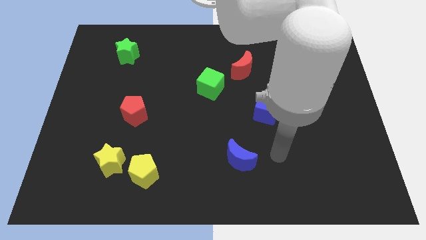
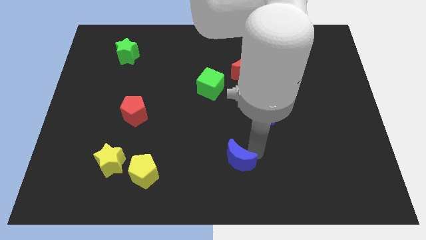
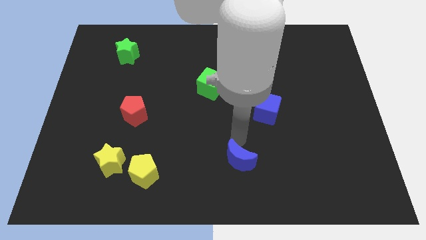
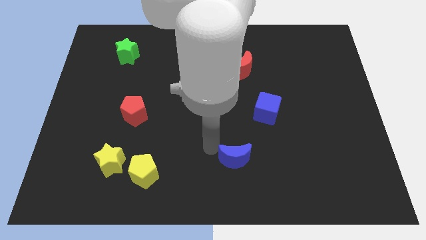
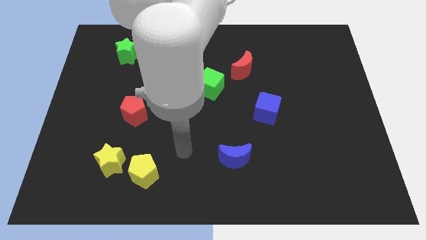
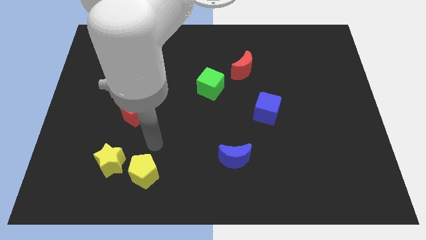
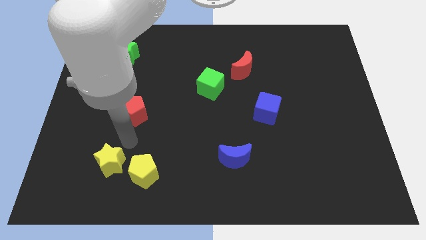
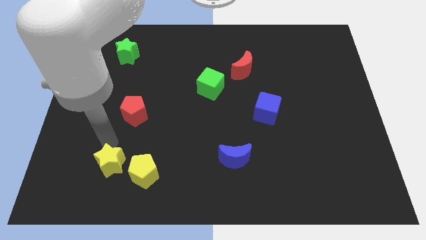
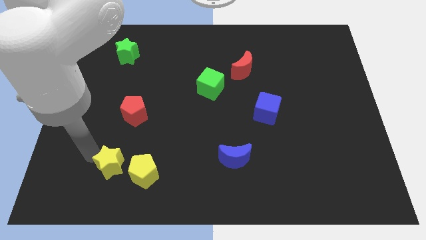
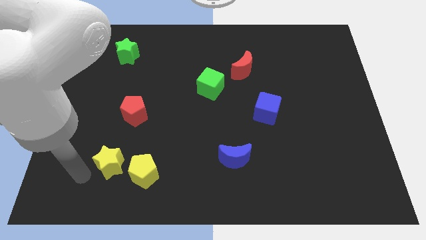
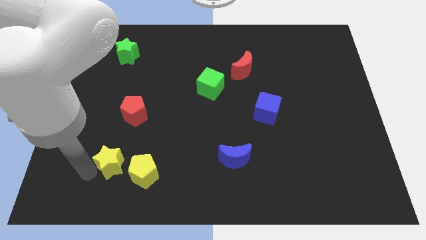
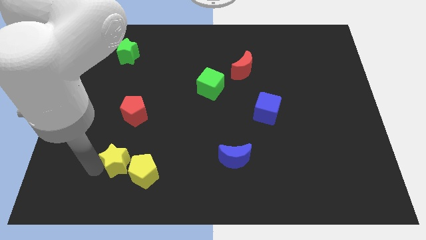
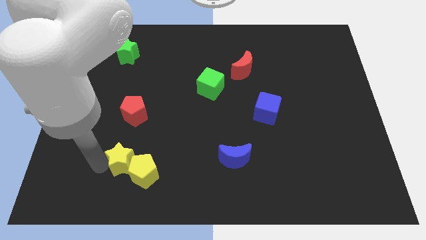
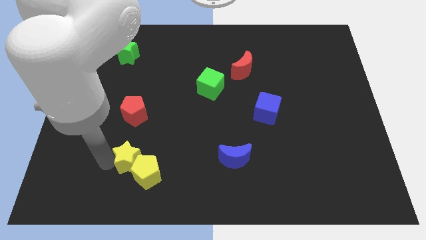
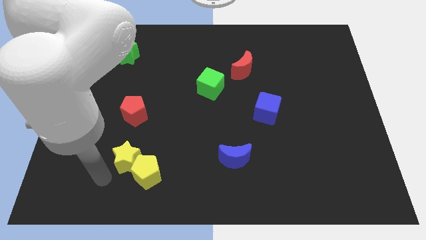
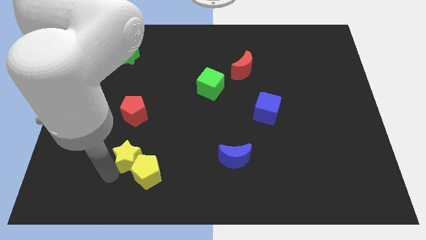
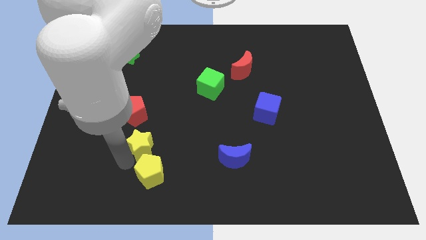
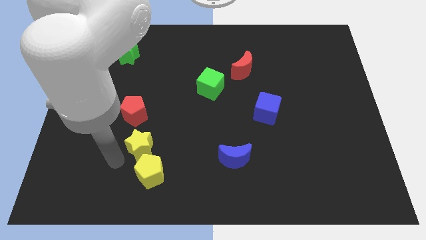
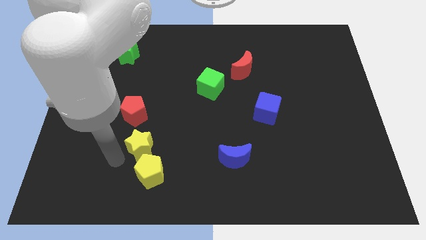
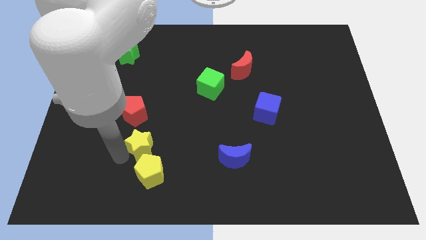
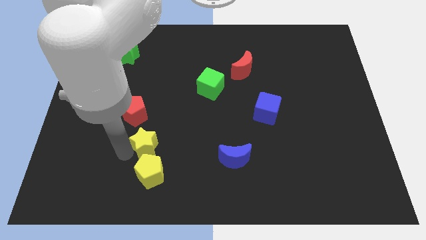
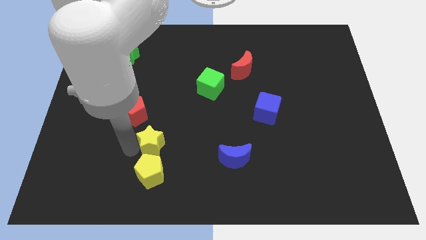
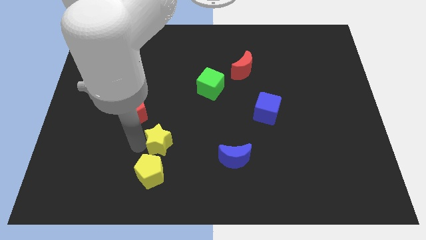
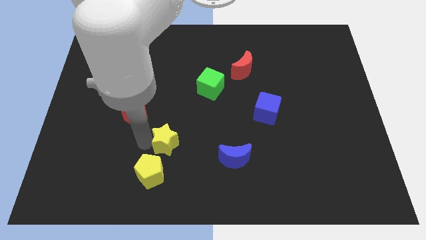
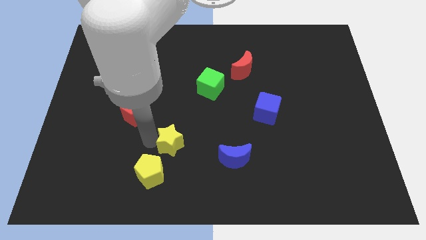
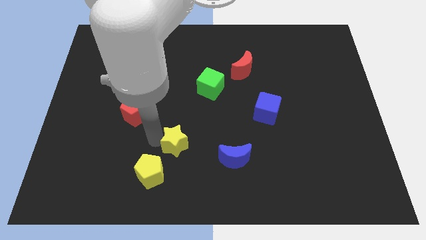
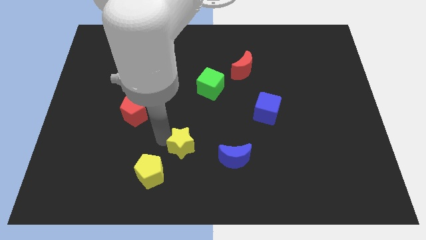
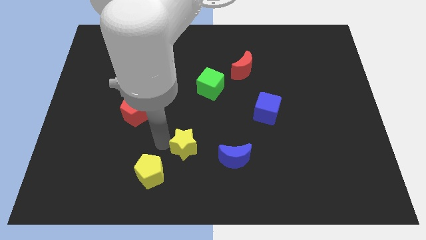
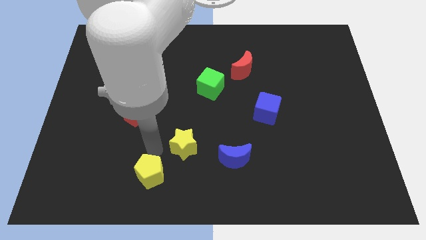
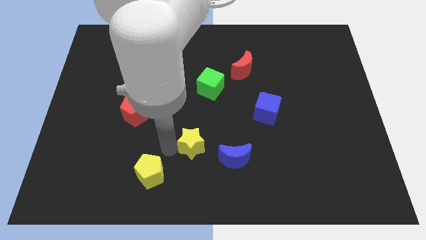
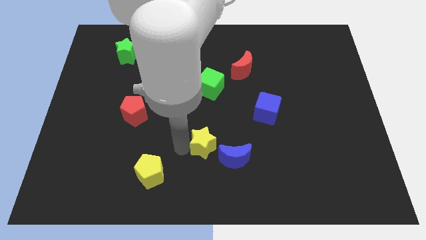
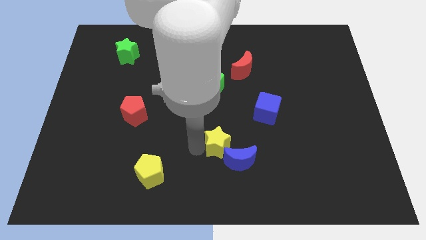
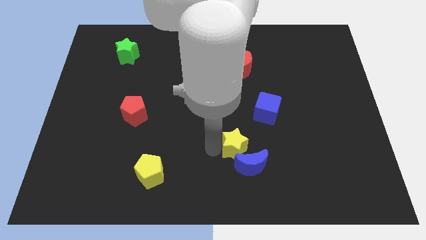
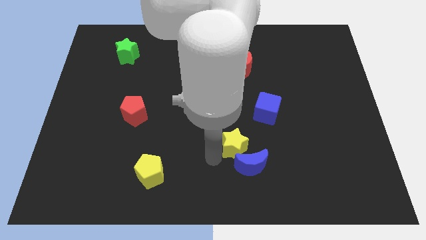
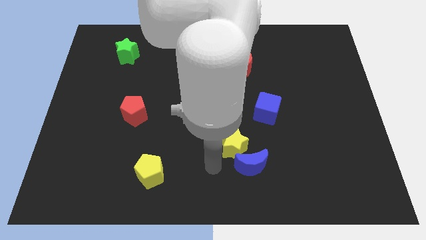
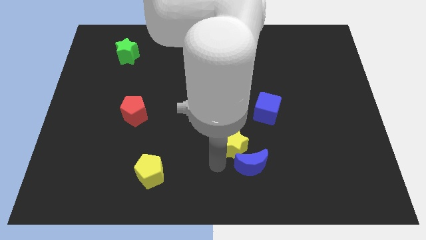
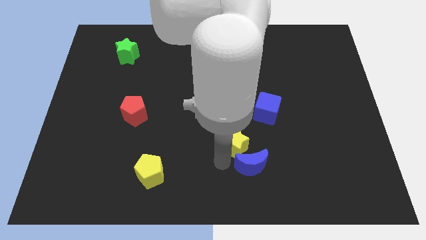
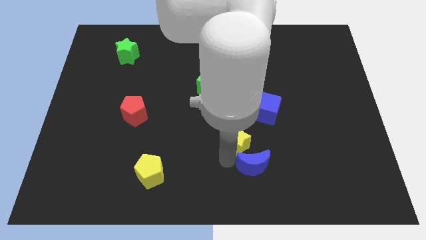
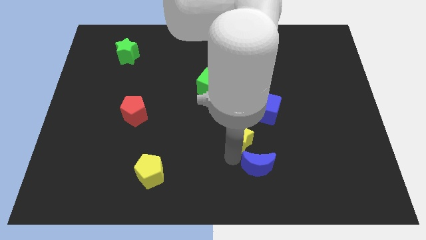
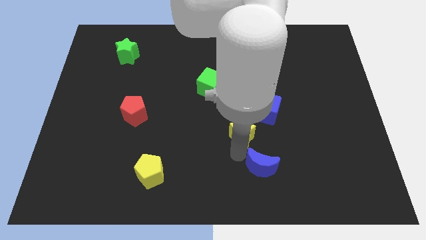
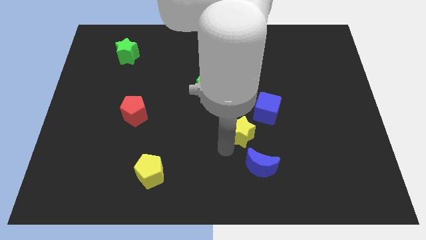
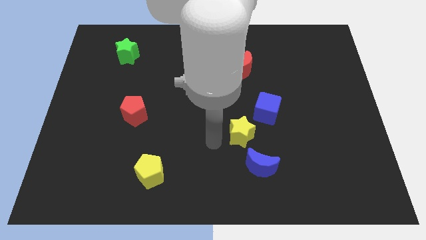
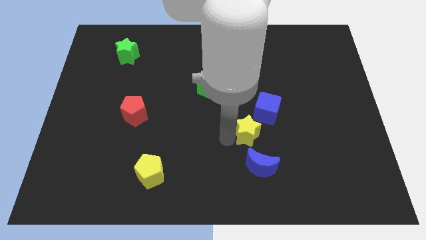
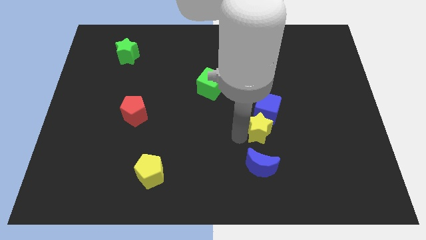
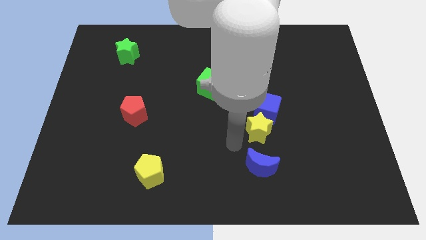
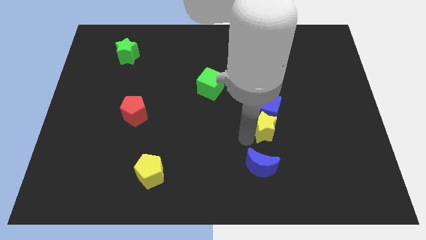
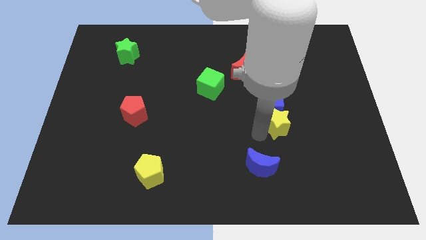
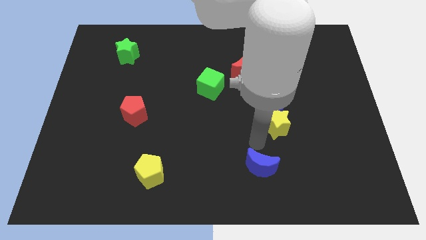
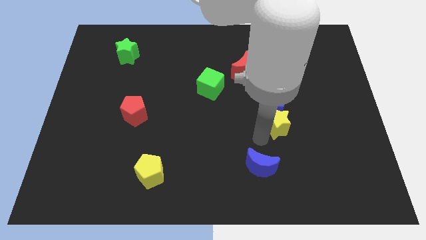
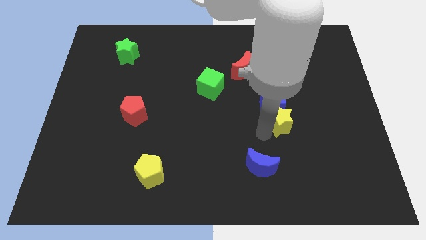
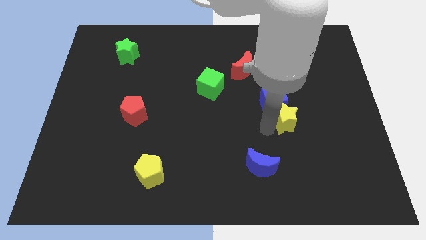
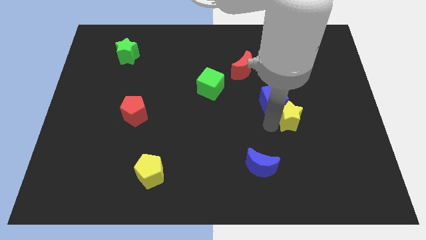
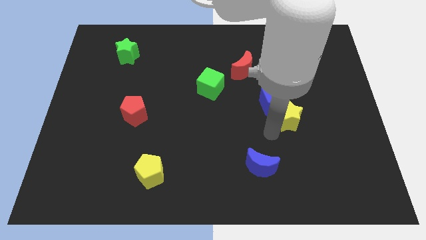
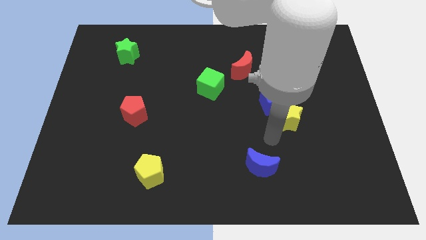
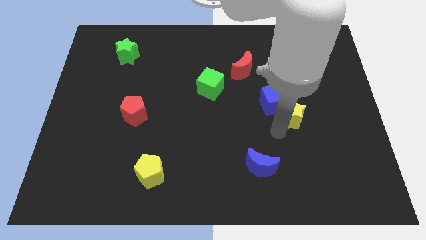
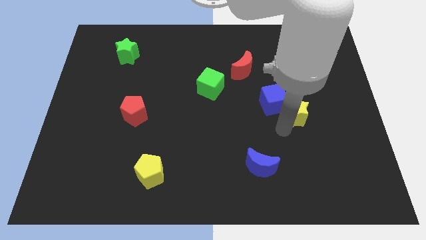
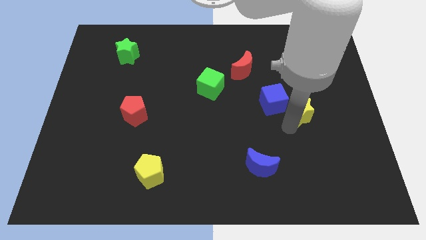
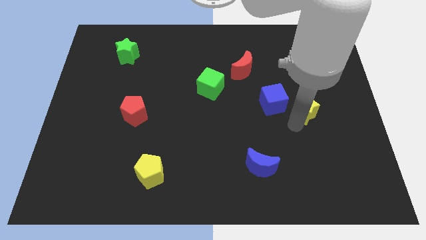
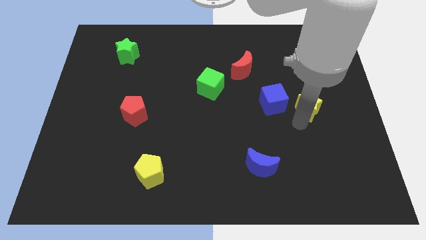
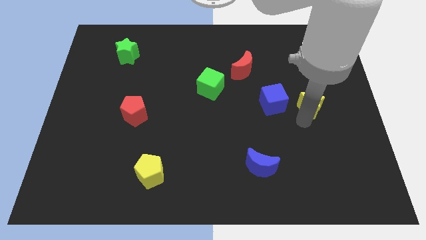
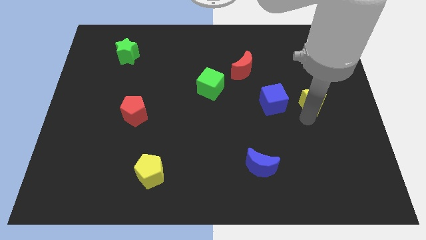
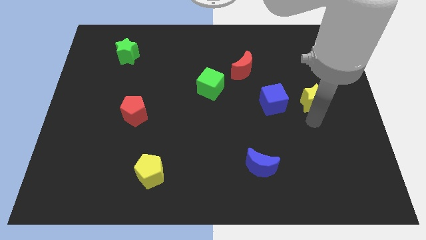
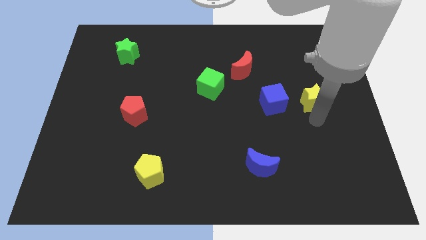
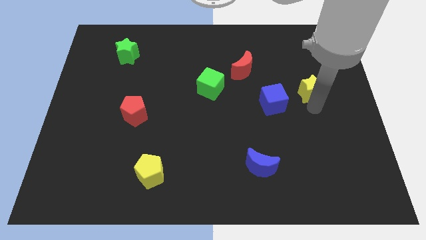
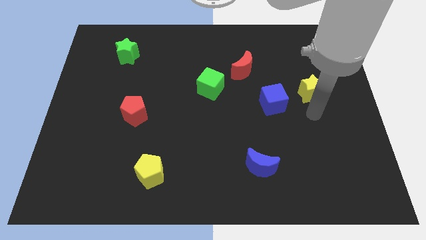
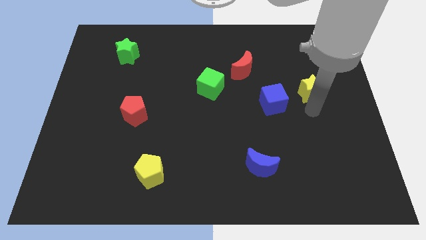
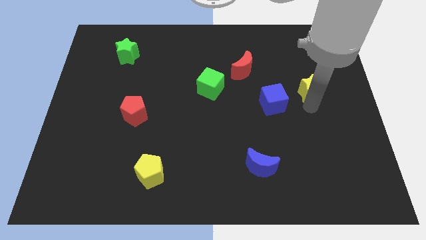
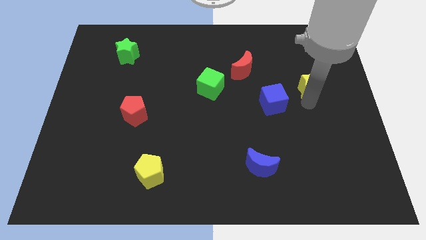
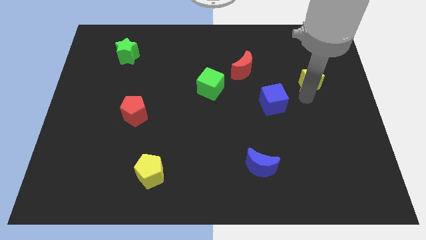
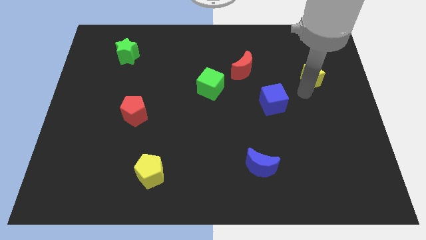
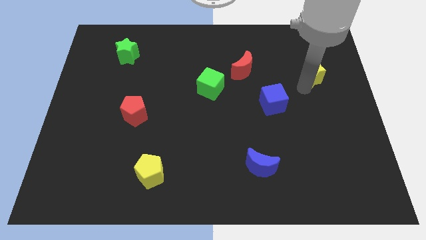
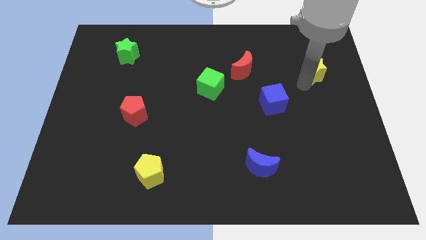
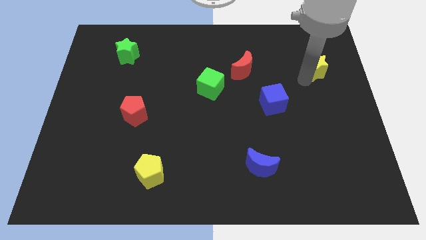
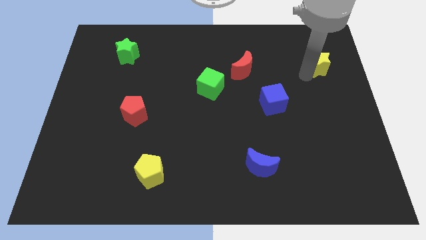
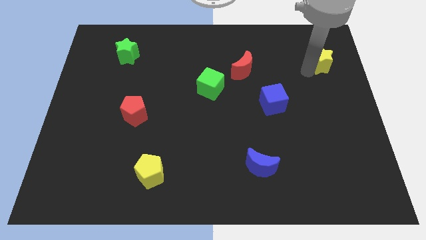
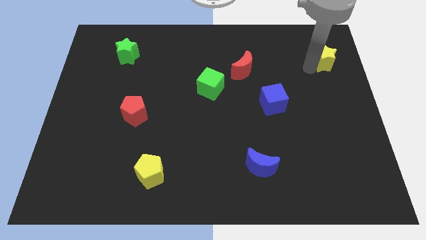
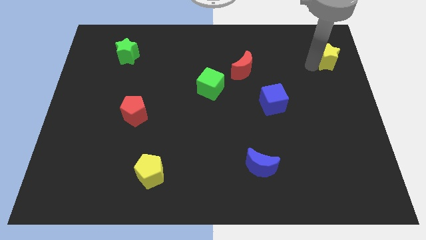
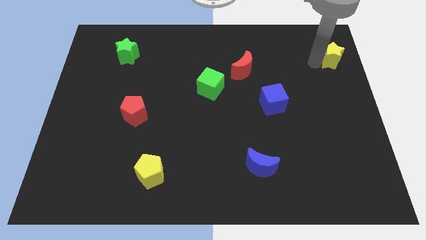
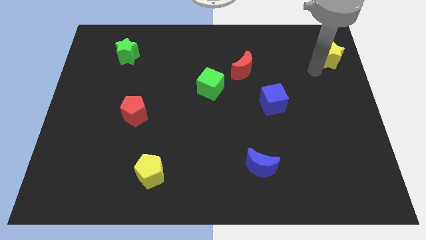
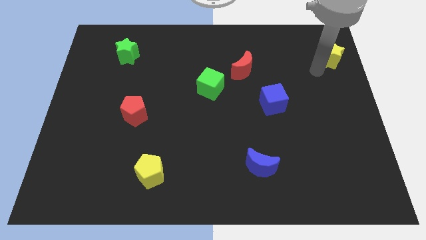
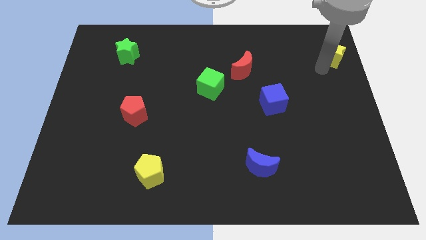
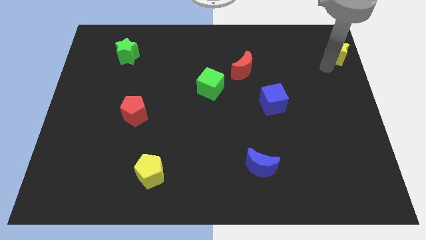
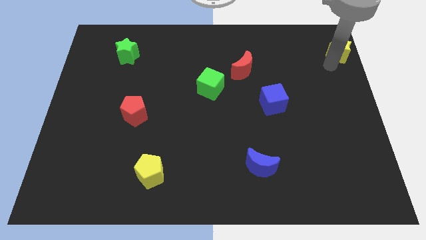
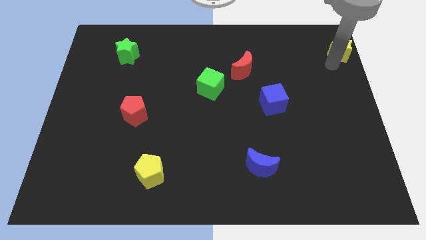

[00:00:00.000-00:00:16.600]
put the yellow star to the top right corner
